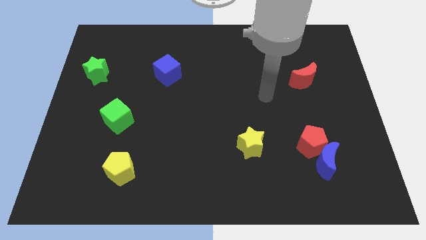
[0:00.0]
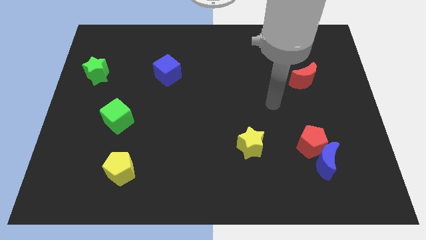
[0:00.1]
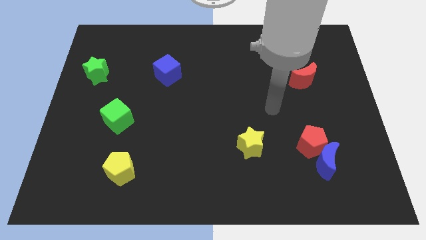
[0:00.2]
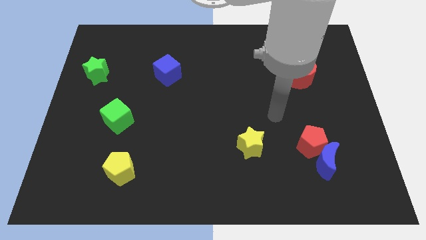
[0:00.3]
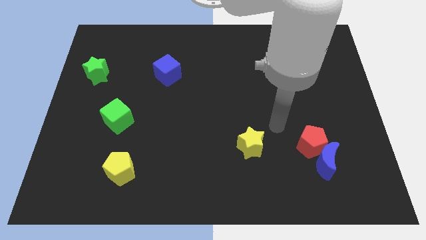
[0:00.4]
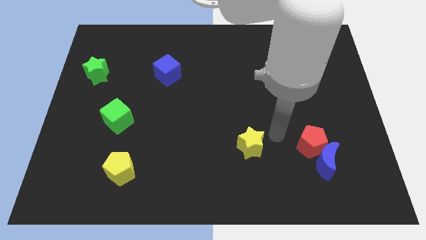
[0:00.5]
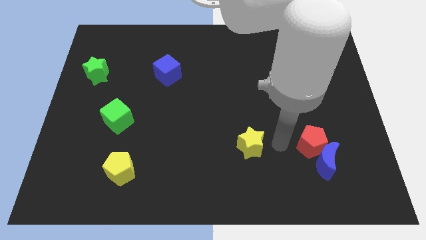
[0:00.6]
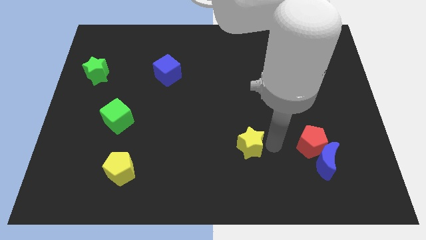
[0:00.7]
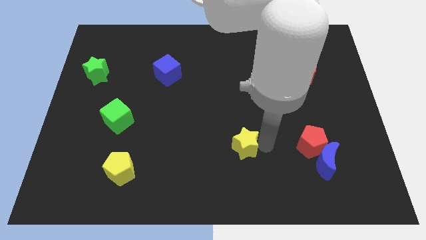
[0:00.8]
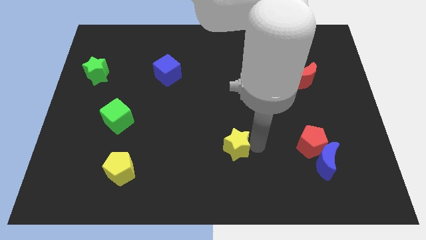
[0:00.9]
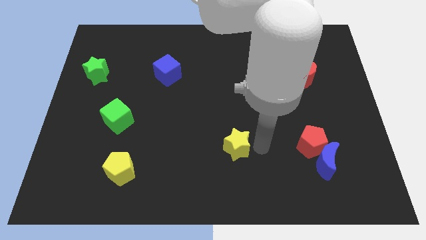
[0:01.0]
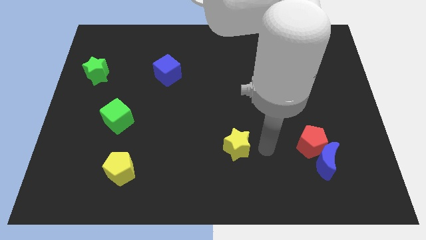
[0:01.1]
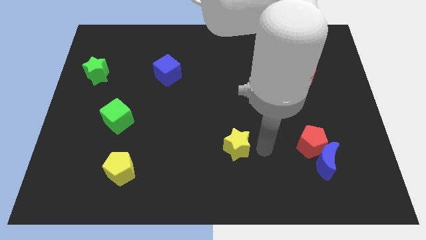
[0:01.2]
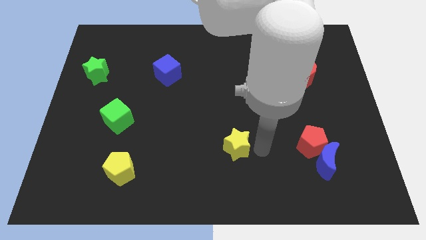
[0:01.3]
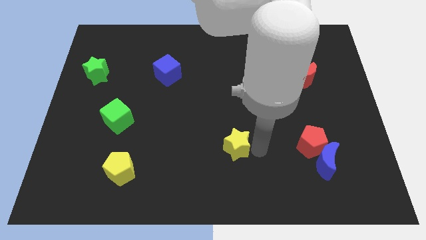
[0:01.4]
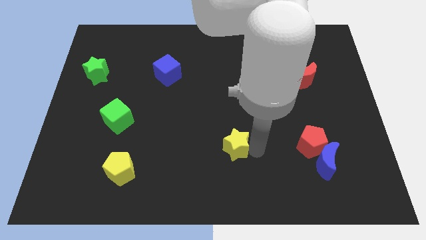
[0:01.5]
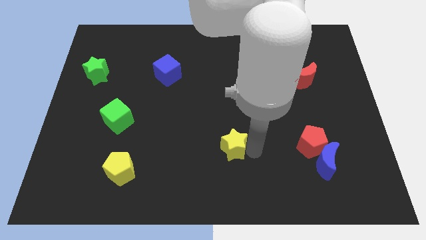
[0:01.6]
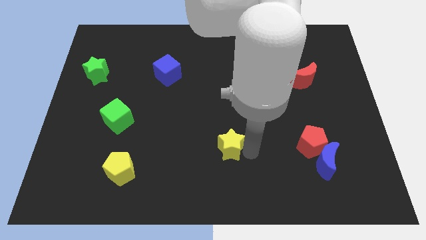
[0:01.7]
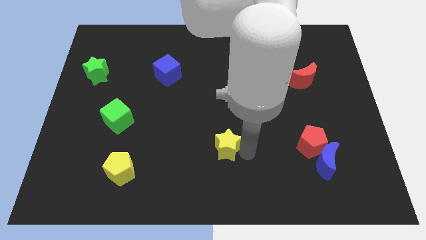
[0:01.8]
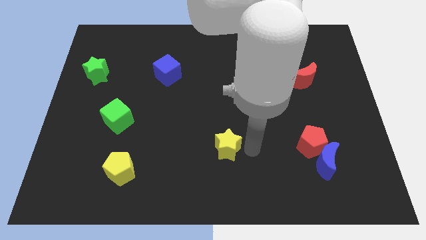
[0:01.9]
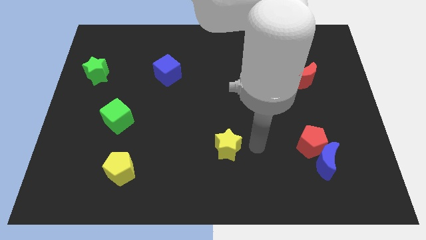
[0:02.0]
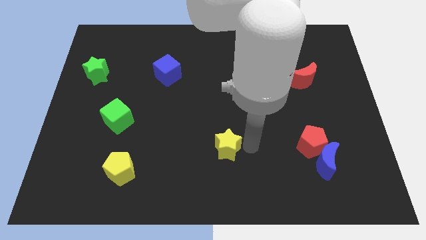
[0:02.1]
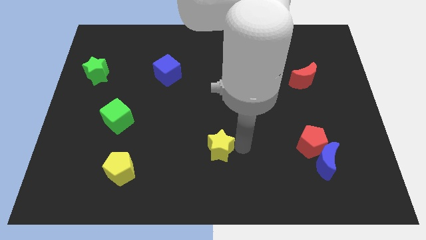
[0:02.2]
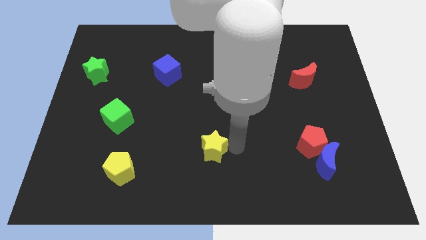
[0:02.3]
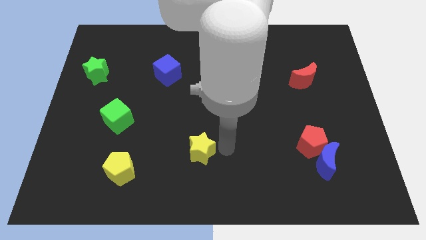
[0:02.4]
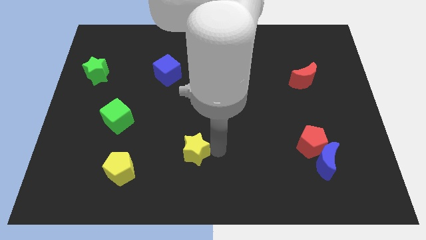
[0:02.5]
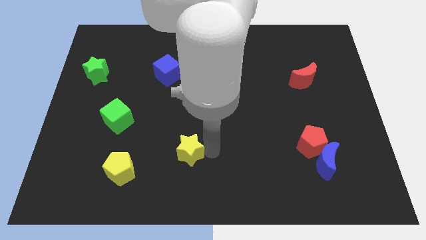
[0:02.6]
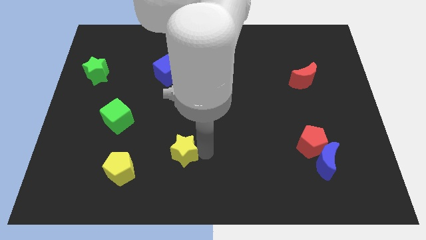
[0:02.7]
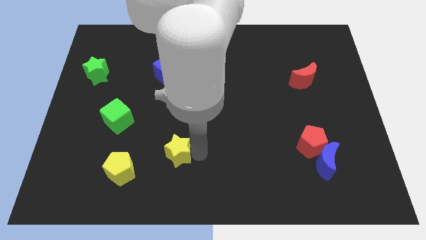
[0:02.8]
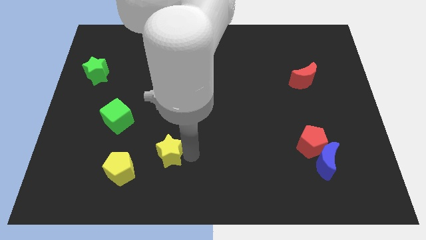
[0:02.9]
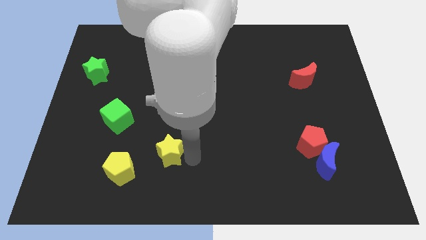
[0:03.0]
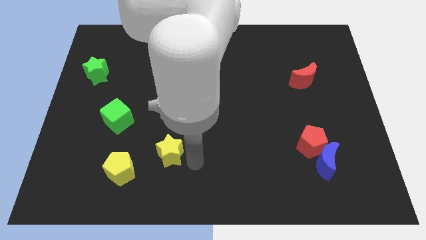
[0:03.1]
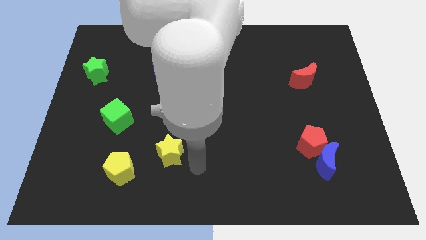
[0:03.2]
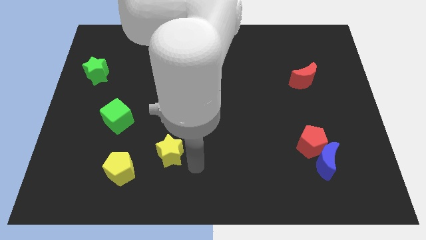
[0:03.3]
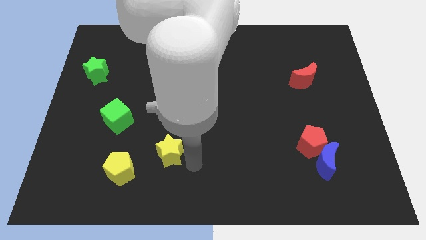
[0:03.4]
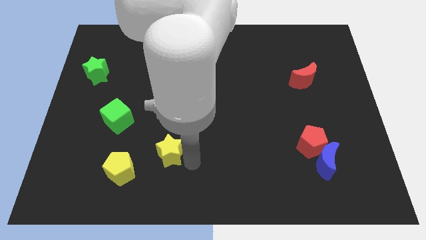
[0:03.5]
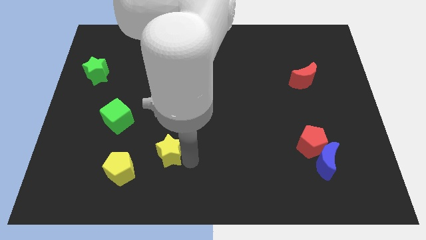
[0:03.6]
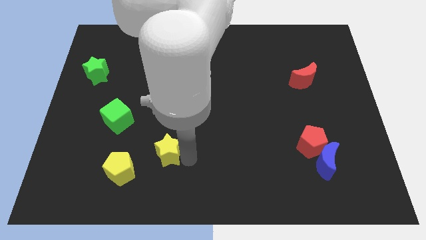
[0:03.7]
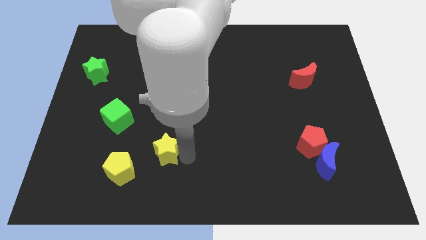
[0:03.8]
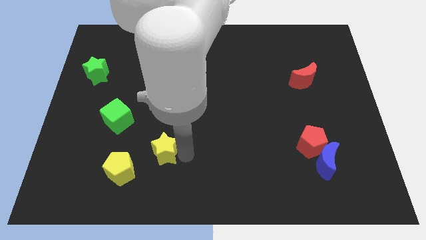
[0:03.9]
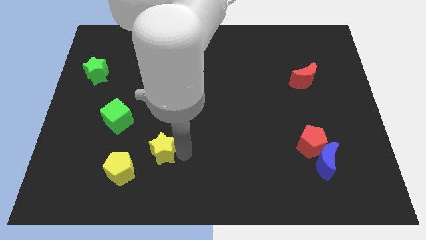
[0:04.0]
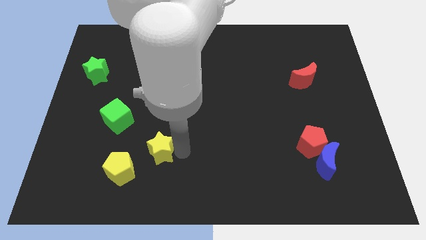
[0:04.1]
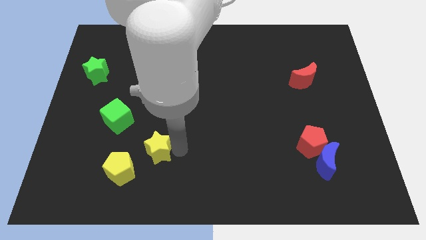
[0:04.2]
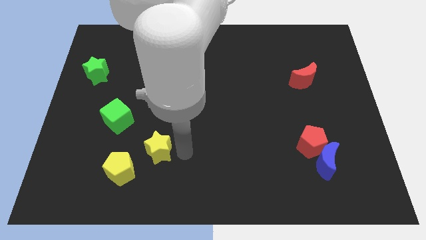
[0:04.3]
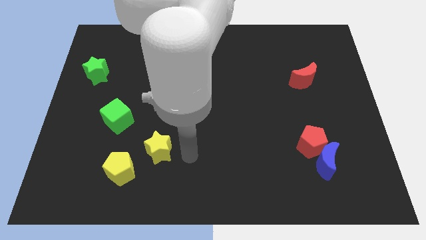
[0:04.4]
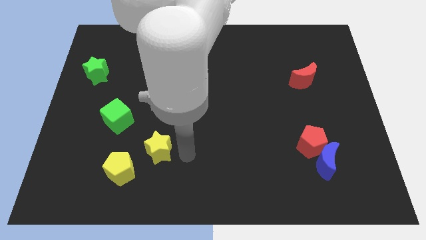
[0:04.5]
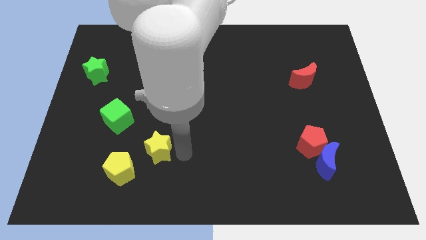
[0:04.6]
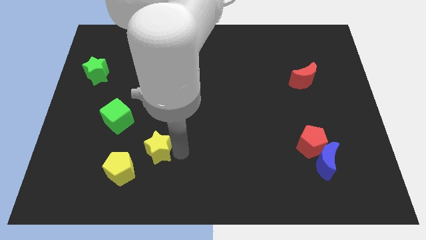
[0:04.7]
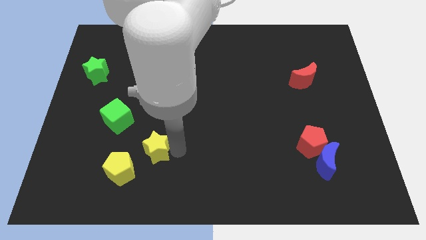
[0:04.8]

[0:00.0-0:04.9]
move the yellow star left

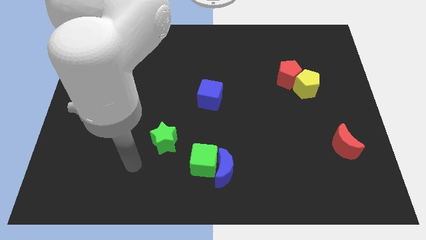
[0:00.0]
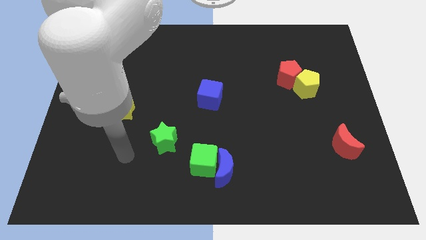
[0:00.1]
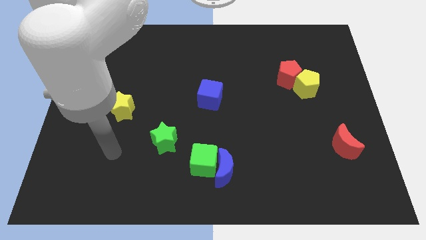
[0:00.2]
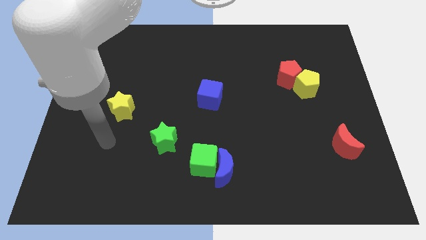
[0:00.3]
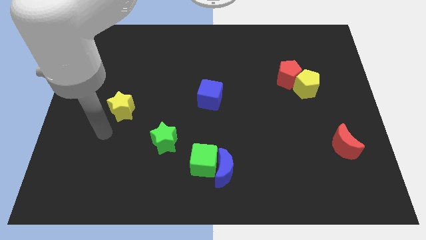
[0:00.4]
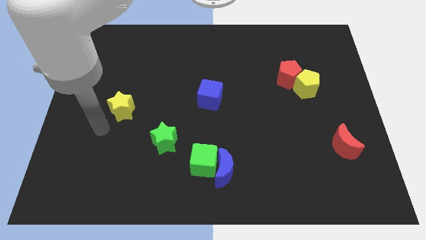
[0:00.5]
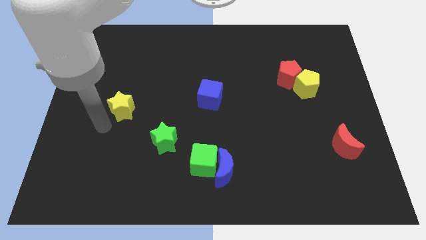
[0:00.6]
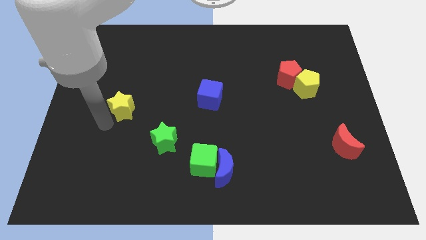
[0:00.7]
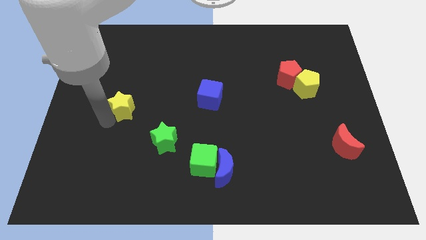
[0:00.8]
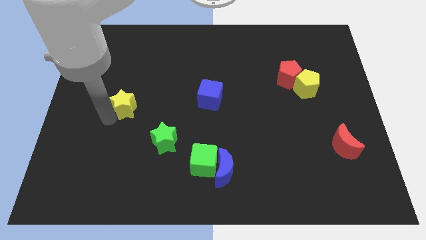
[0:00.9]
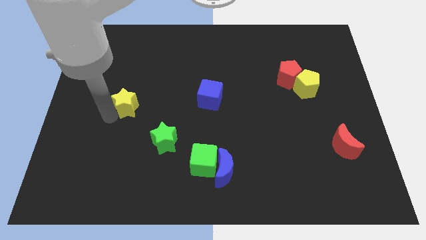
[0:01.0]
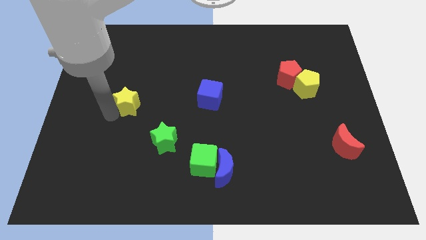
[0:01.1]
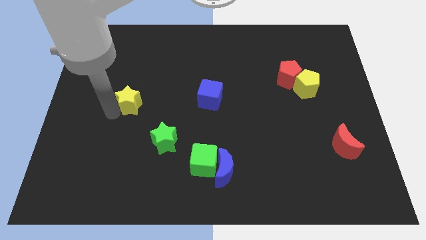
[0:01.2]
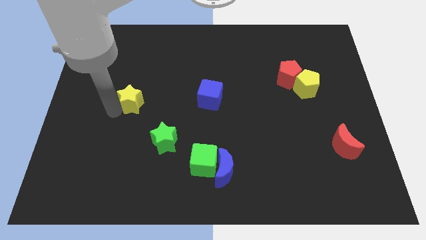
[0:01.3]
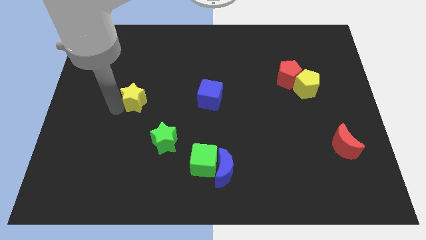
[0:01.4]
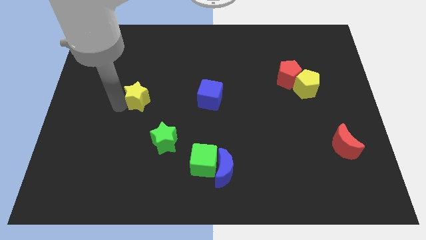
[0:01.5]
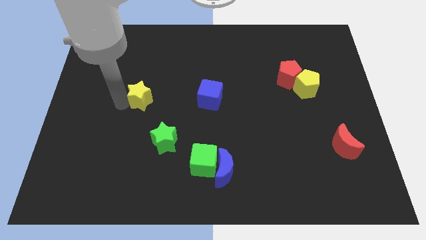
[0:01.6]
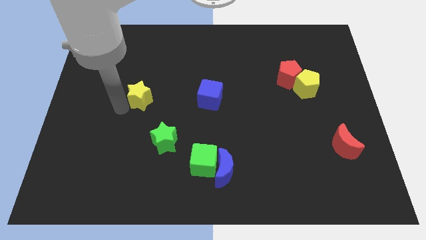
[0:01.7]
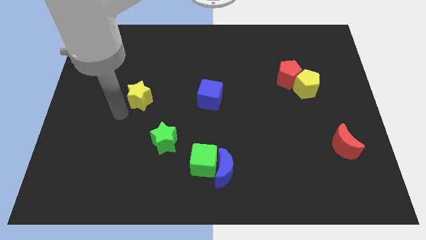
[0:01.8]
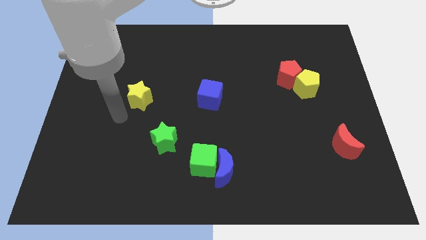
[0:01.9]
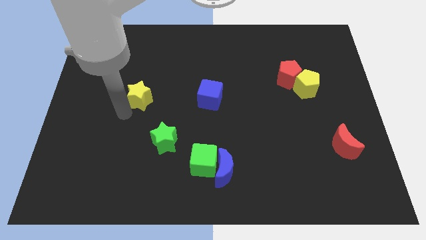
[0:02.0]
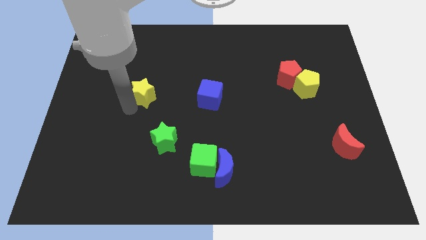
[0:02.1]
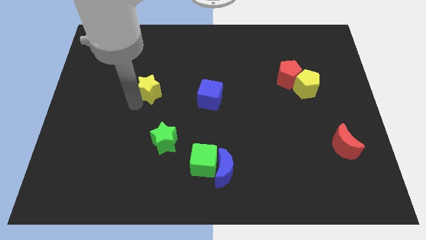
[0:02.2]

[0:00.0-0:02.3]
slightly slide the yellow star up and to the right diagonally

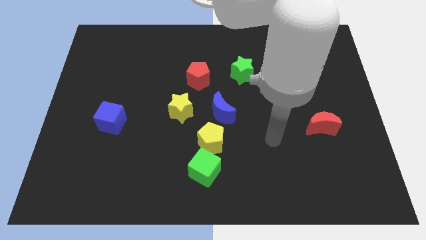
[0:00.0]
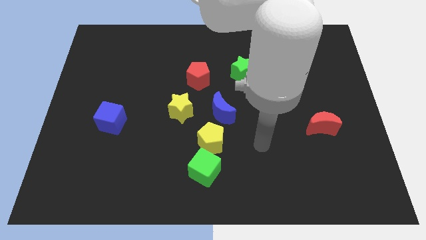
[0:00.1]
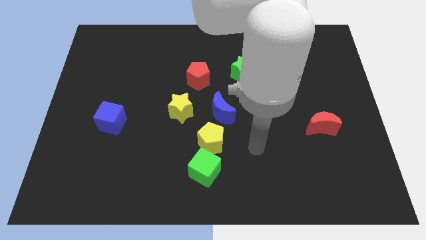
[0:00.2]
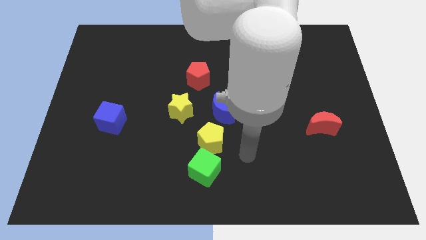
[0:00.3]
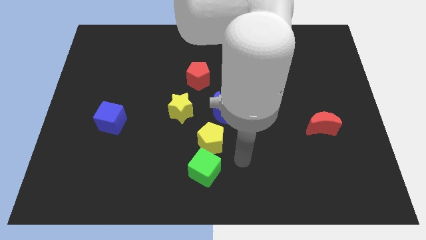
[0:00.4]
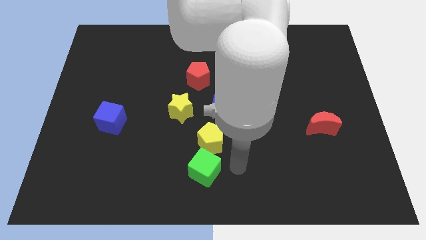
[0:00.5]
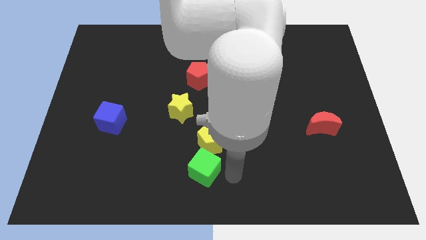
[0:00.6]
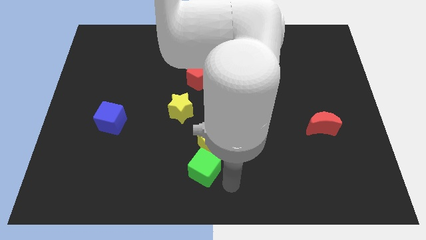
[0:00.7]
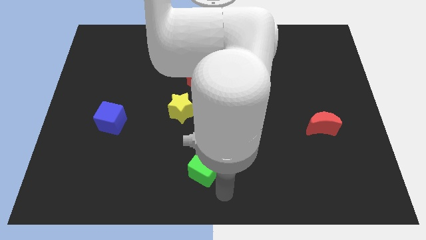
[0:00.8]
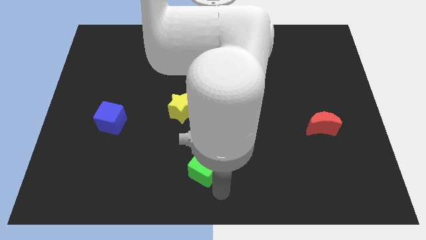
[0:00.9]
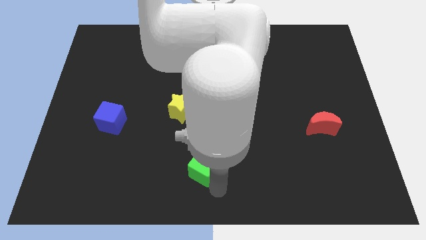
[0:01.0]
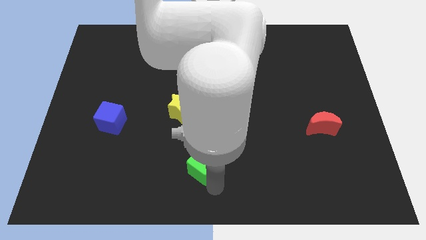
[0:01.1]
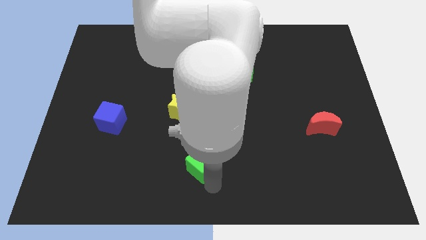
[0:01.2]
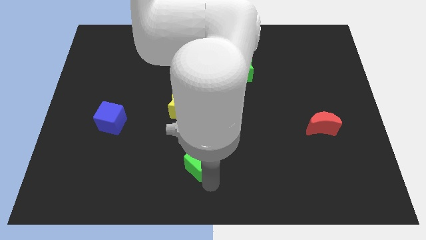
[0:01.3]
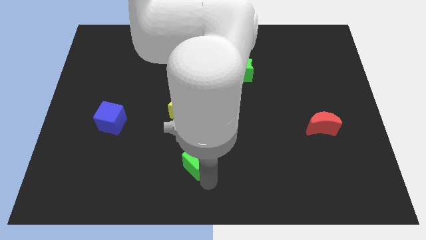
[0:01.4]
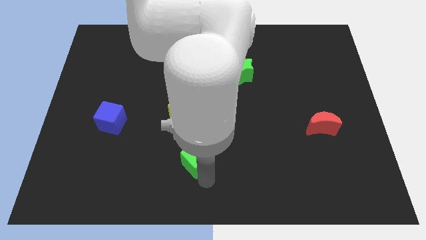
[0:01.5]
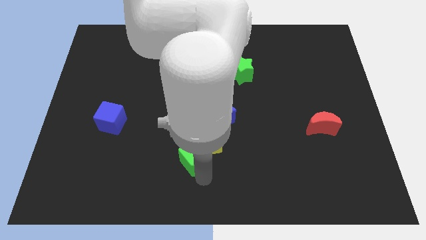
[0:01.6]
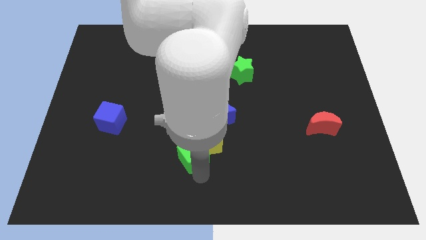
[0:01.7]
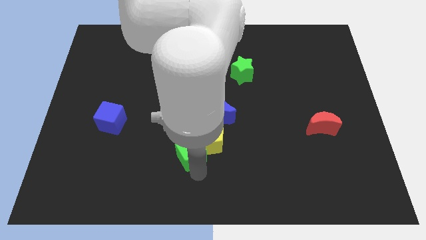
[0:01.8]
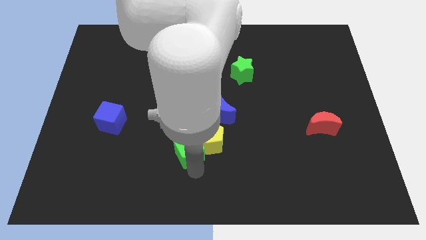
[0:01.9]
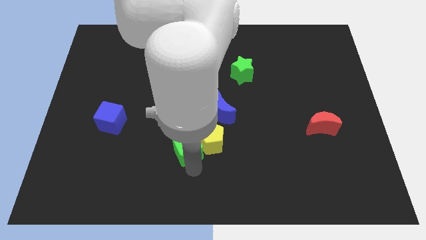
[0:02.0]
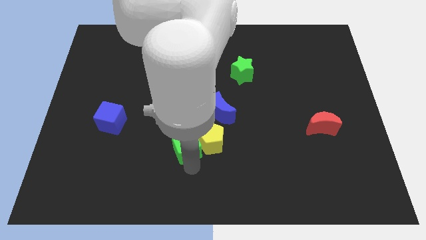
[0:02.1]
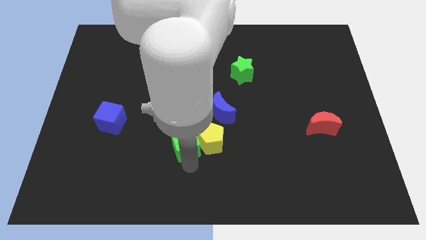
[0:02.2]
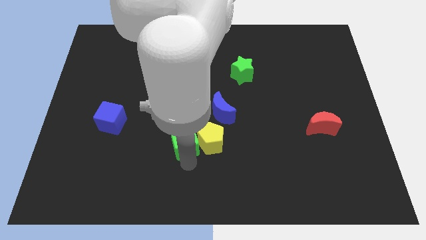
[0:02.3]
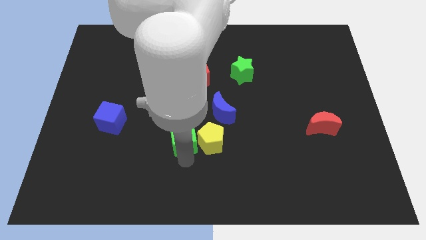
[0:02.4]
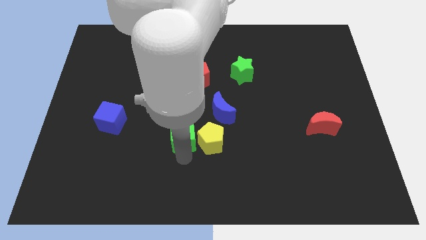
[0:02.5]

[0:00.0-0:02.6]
slightly slide the green cube upwards
